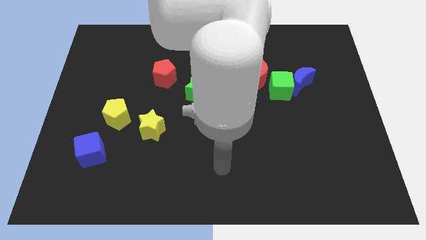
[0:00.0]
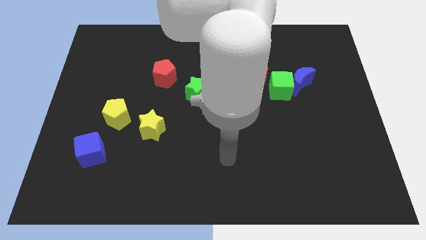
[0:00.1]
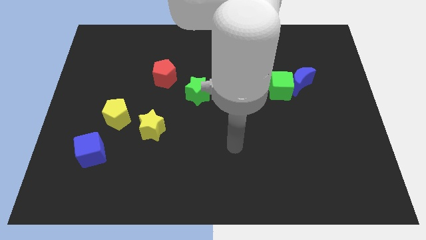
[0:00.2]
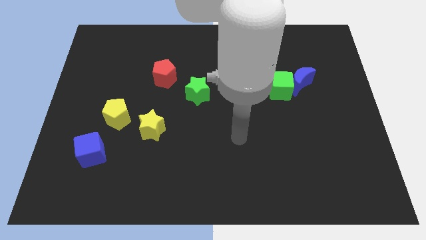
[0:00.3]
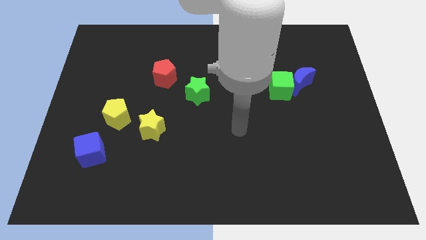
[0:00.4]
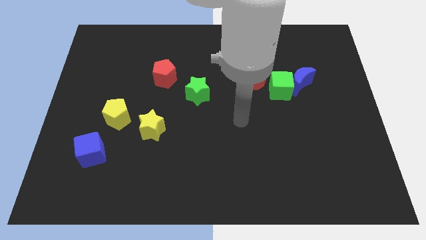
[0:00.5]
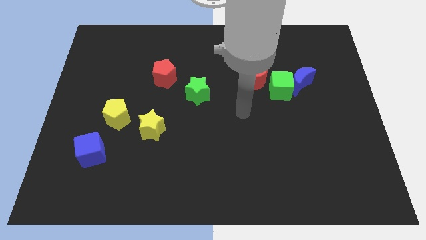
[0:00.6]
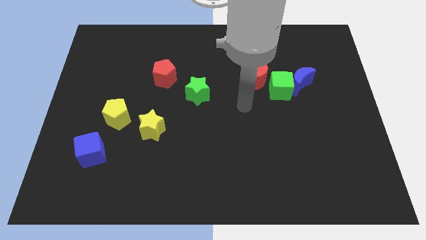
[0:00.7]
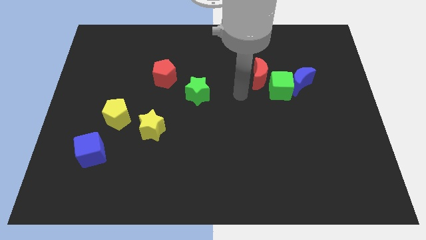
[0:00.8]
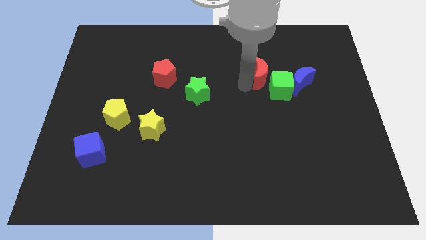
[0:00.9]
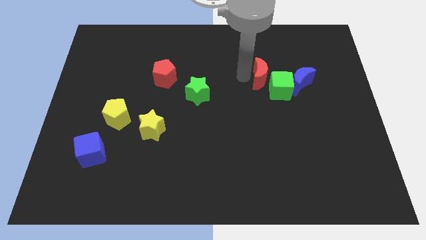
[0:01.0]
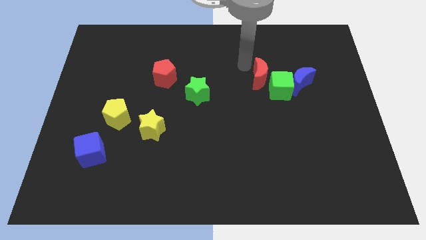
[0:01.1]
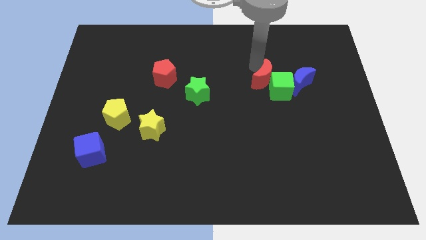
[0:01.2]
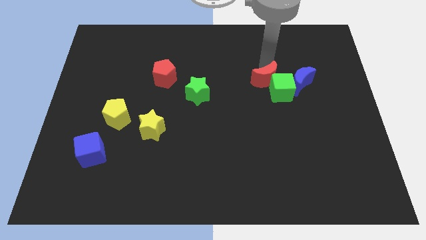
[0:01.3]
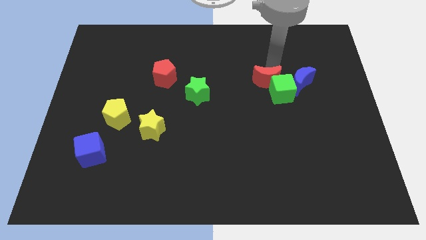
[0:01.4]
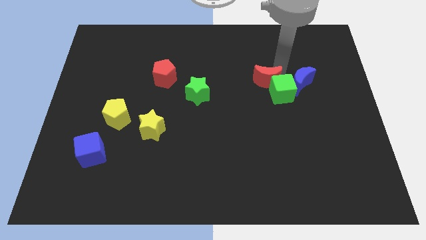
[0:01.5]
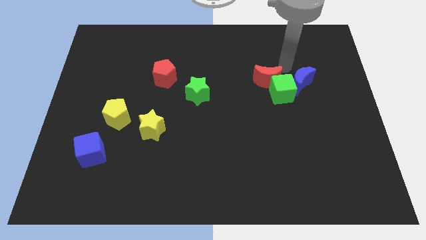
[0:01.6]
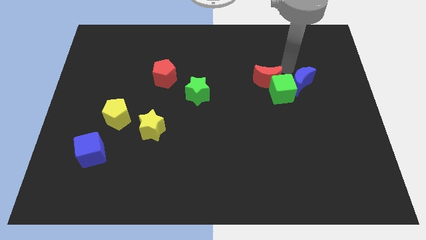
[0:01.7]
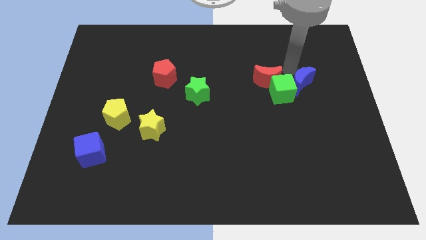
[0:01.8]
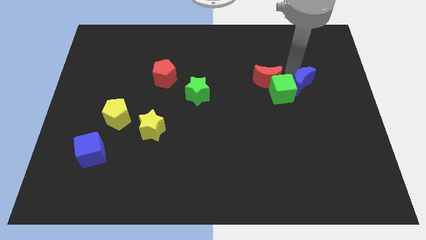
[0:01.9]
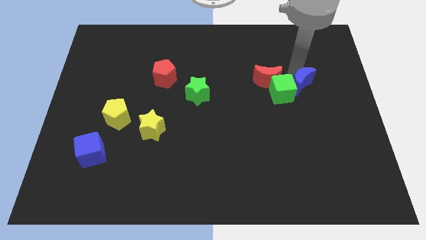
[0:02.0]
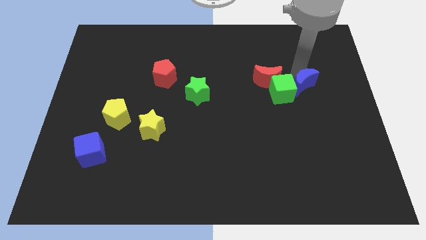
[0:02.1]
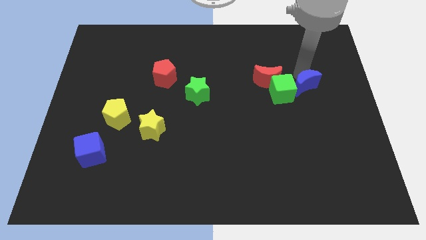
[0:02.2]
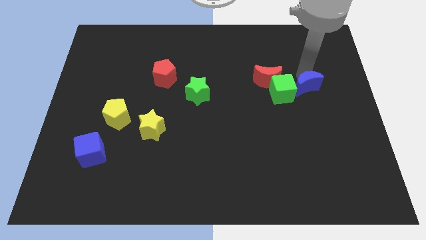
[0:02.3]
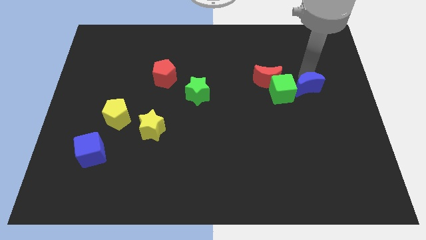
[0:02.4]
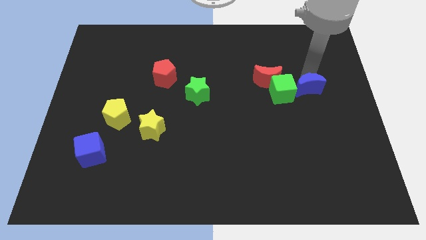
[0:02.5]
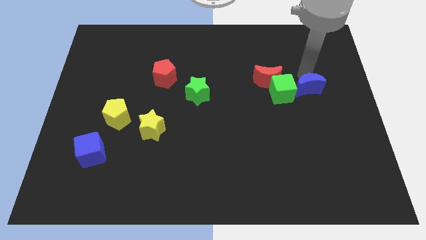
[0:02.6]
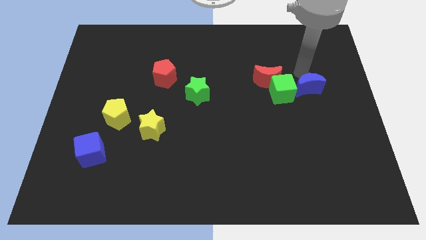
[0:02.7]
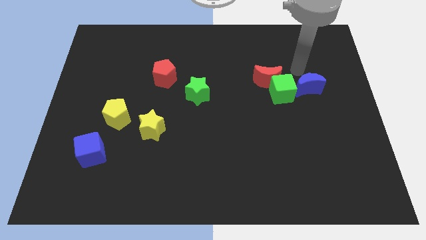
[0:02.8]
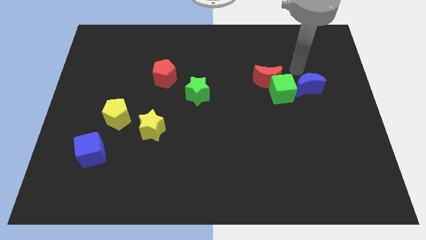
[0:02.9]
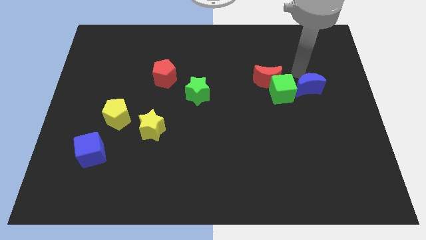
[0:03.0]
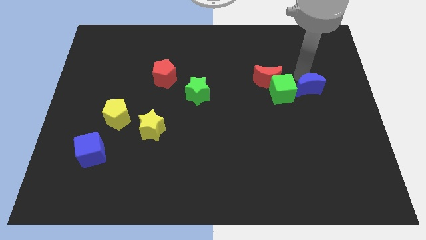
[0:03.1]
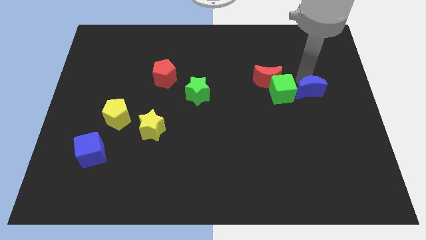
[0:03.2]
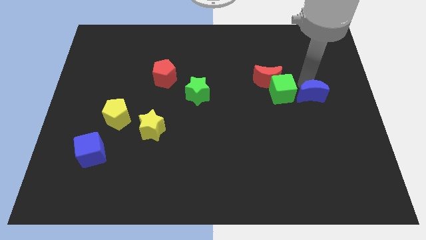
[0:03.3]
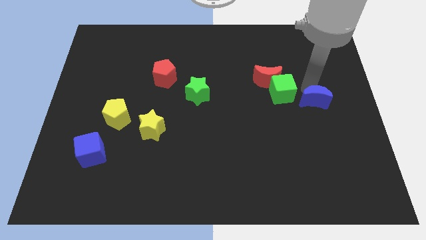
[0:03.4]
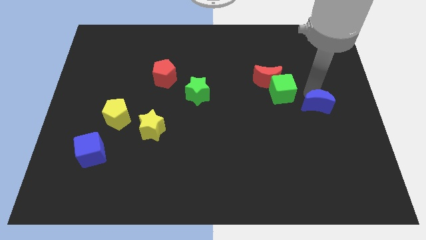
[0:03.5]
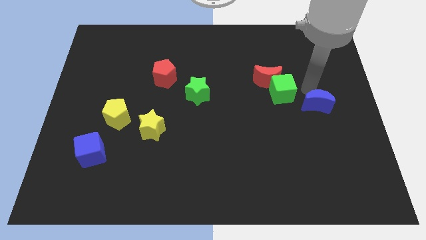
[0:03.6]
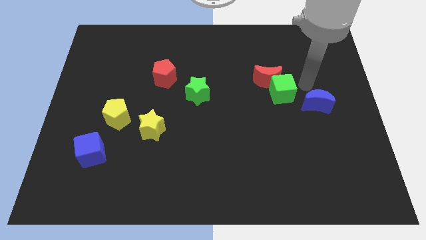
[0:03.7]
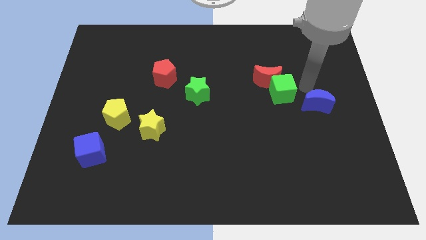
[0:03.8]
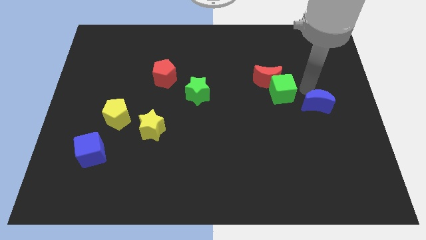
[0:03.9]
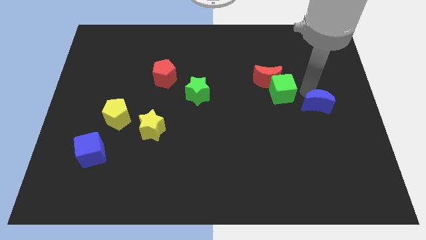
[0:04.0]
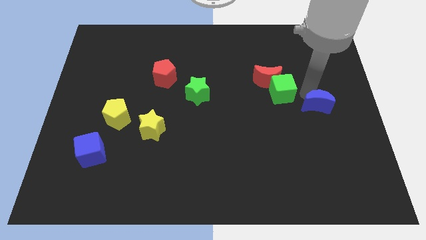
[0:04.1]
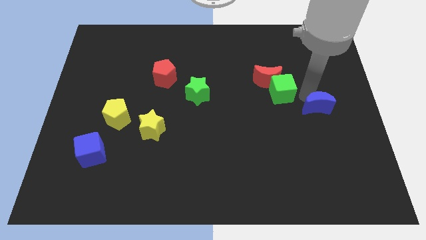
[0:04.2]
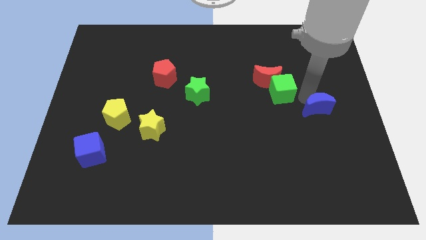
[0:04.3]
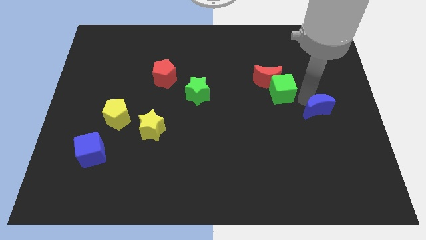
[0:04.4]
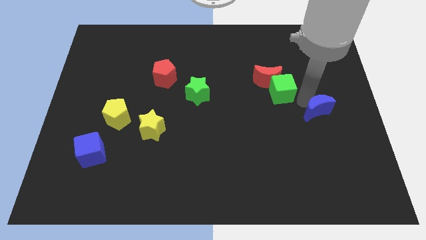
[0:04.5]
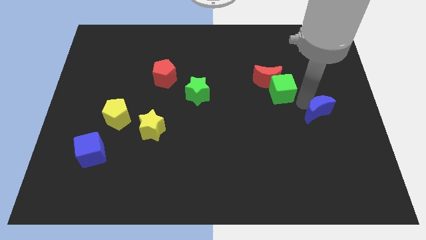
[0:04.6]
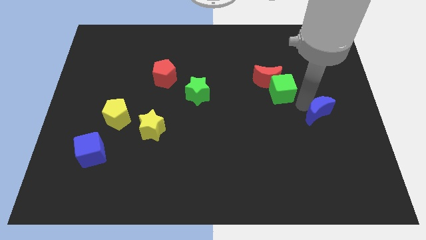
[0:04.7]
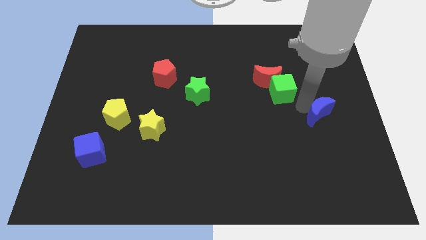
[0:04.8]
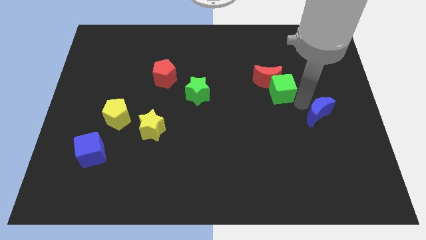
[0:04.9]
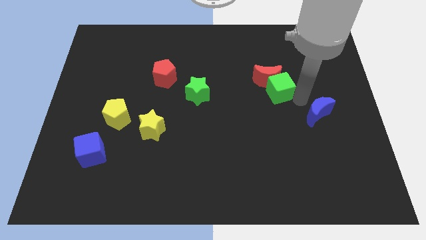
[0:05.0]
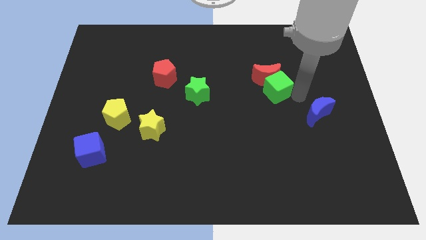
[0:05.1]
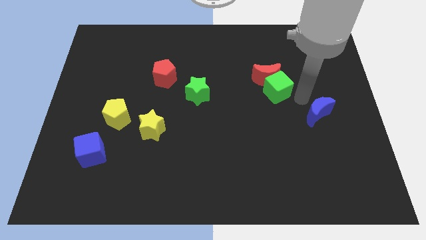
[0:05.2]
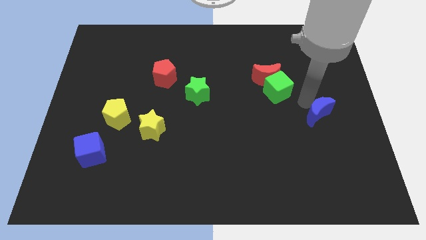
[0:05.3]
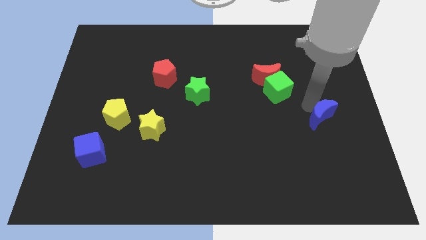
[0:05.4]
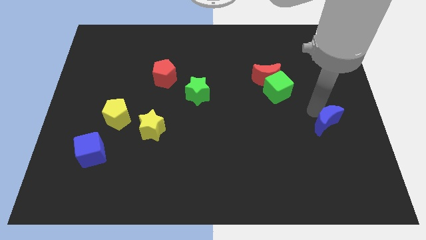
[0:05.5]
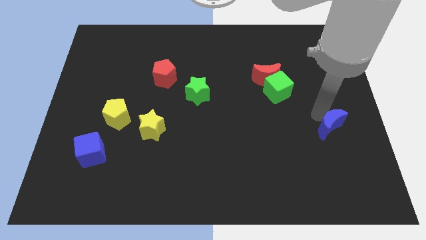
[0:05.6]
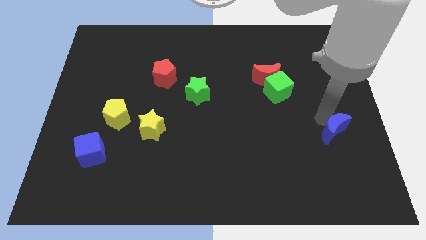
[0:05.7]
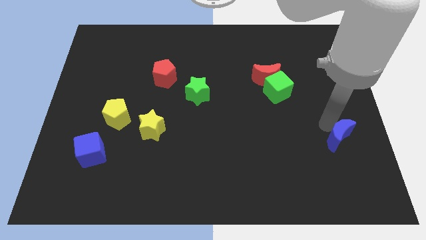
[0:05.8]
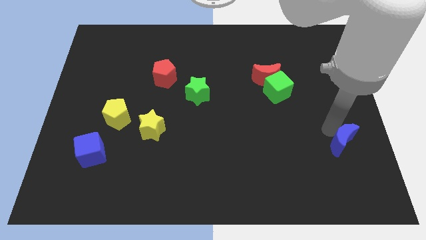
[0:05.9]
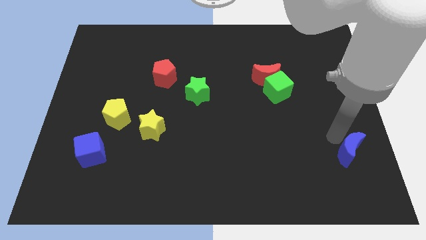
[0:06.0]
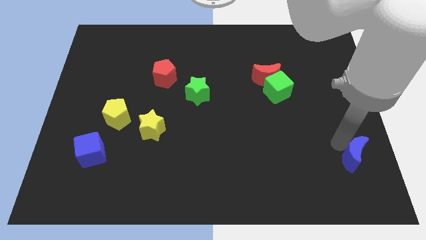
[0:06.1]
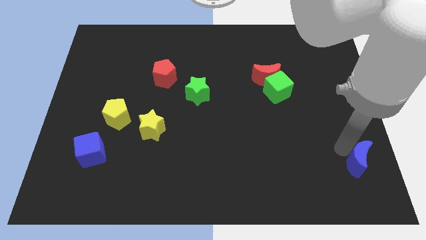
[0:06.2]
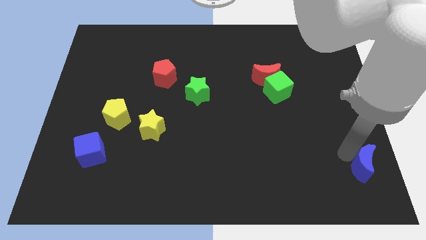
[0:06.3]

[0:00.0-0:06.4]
put the blue moon to the bottom right of the board

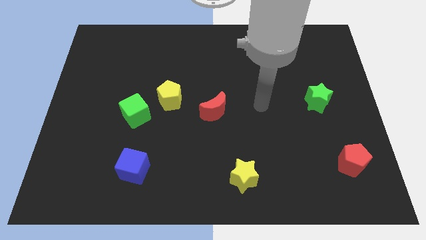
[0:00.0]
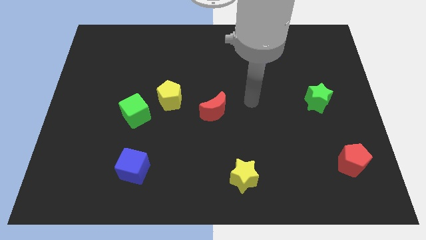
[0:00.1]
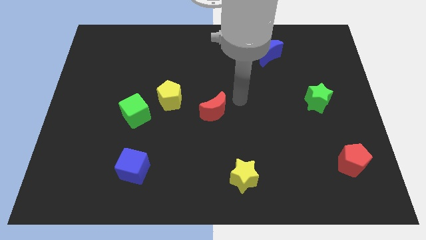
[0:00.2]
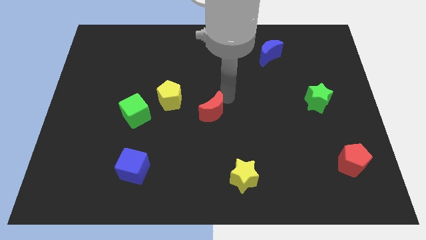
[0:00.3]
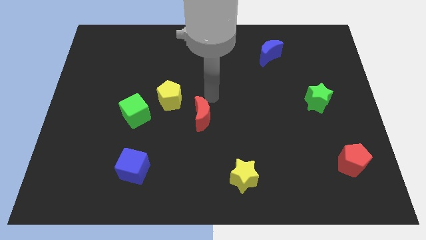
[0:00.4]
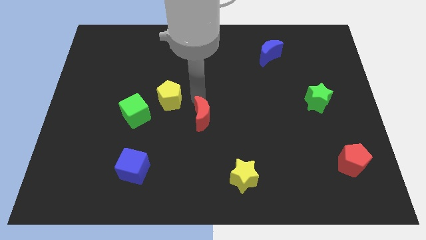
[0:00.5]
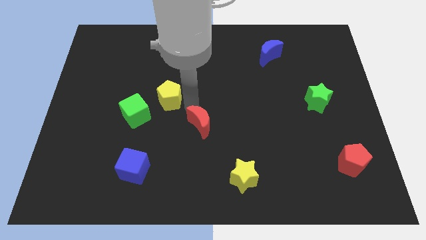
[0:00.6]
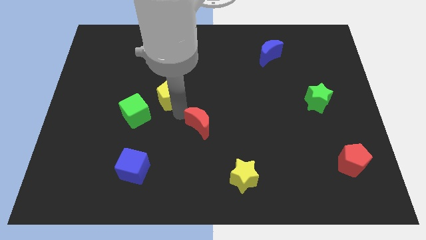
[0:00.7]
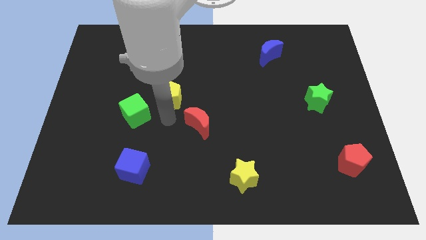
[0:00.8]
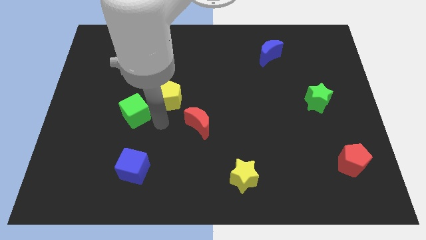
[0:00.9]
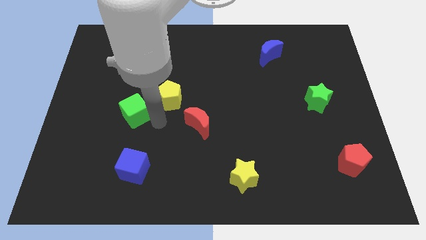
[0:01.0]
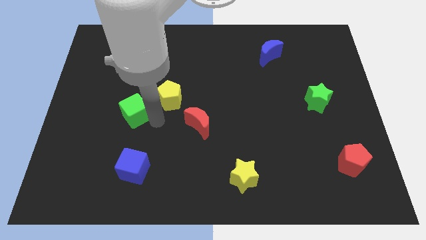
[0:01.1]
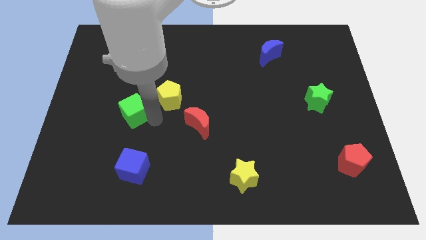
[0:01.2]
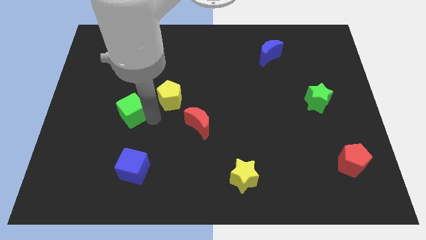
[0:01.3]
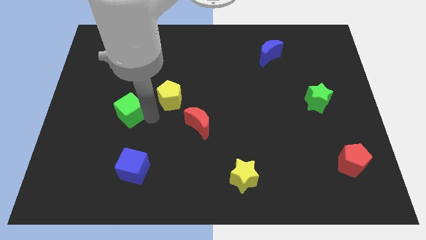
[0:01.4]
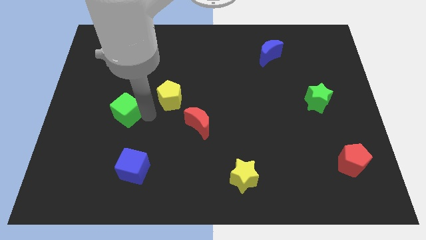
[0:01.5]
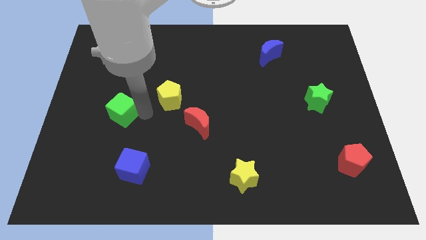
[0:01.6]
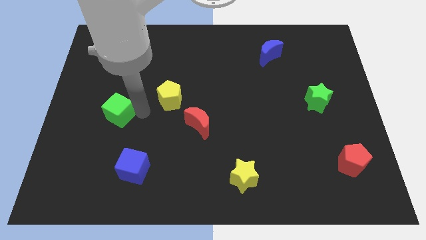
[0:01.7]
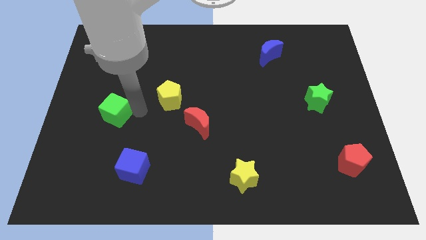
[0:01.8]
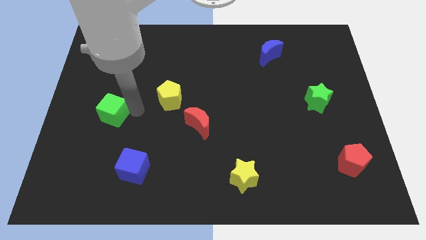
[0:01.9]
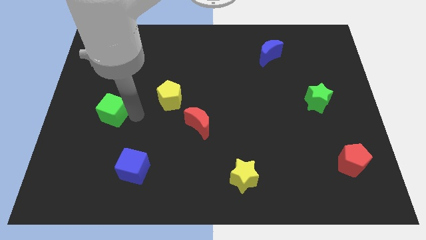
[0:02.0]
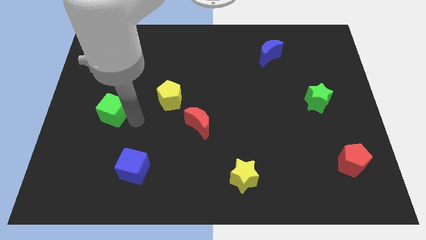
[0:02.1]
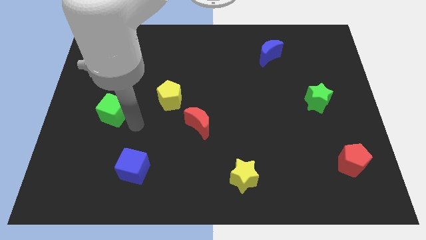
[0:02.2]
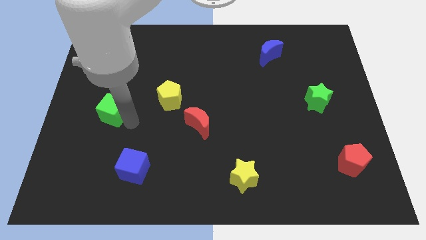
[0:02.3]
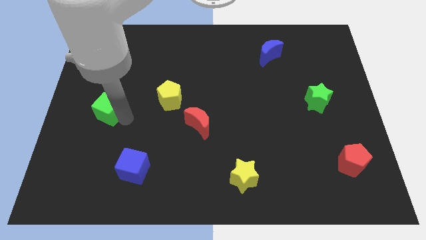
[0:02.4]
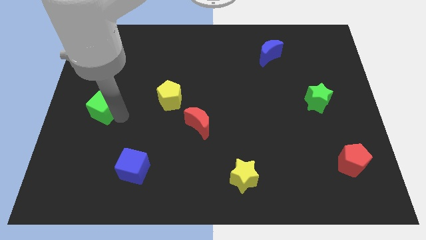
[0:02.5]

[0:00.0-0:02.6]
put the green cube to the left side of the board
